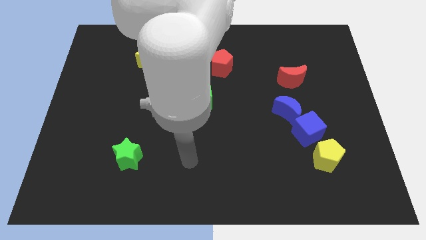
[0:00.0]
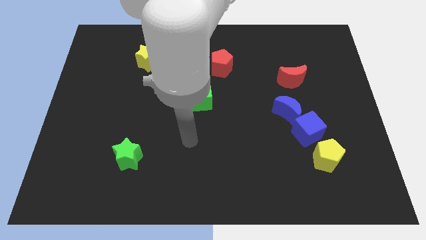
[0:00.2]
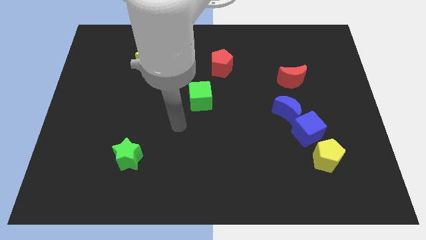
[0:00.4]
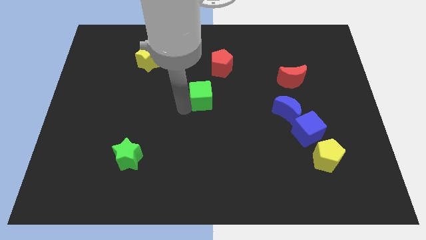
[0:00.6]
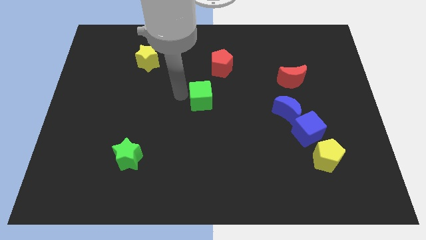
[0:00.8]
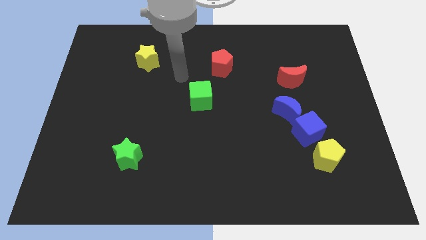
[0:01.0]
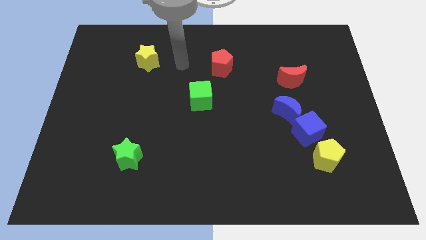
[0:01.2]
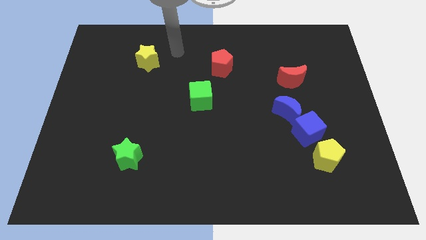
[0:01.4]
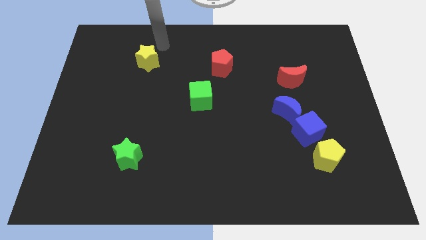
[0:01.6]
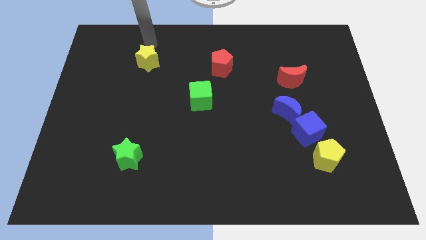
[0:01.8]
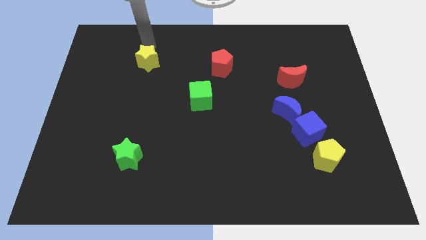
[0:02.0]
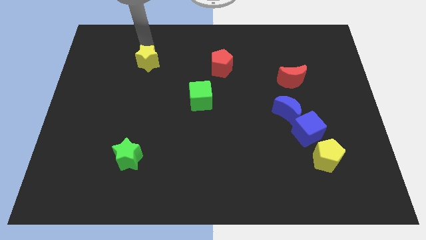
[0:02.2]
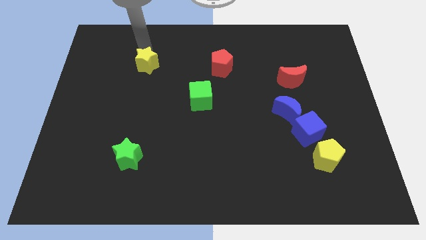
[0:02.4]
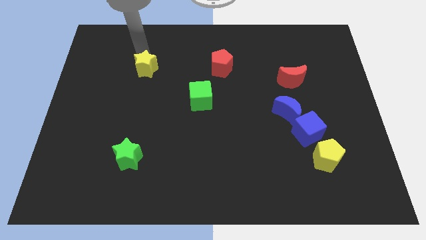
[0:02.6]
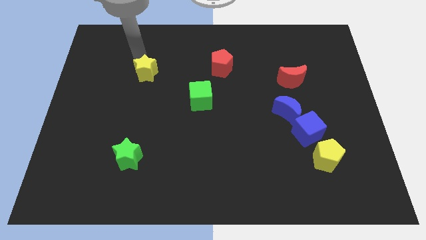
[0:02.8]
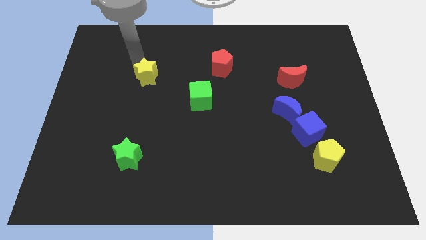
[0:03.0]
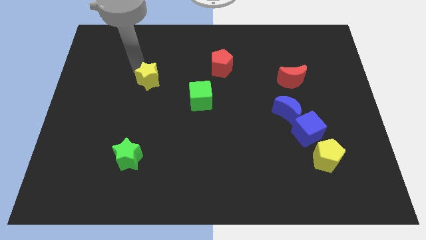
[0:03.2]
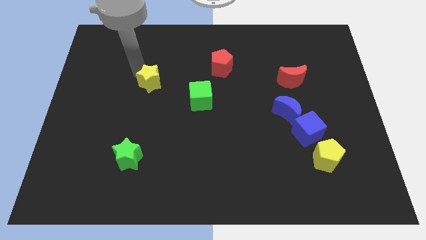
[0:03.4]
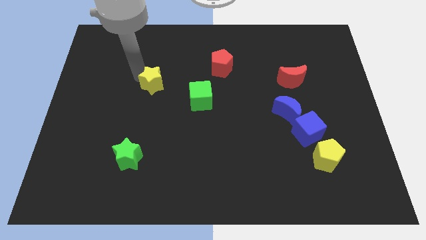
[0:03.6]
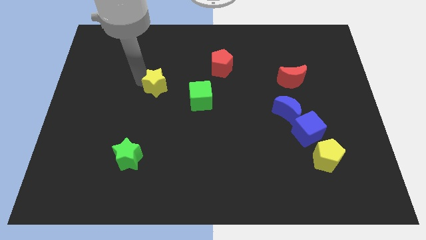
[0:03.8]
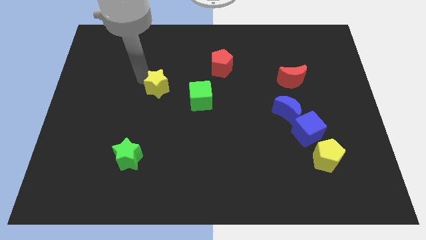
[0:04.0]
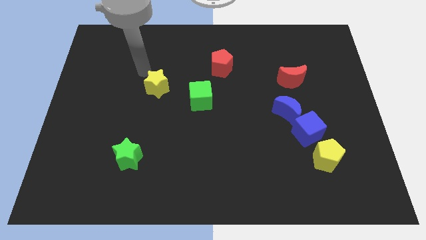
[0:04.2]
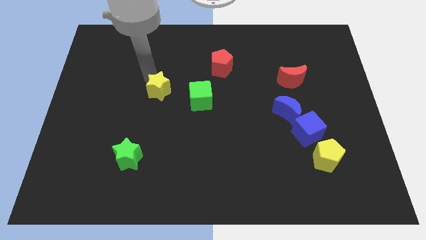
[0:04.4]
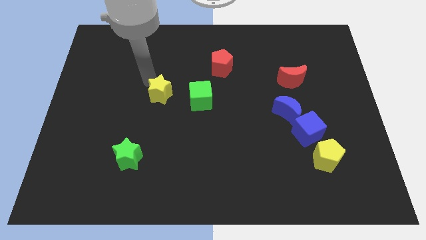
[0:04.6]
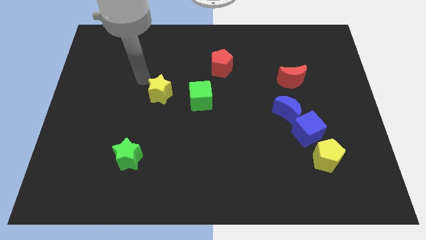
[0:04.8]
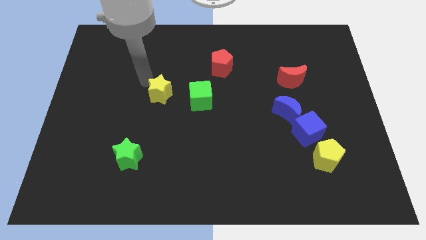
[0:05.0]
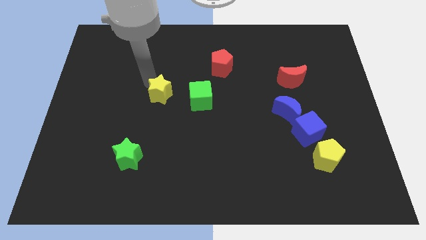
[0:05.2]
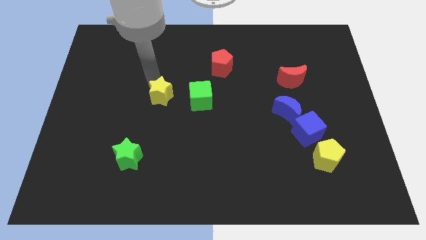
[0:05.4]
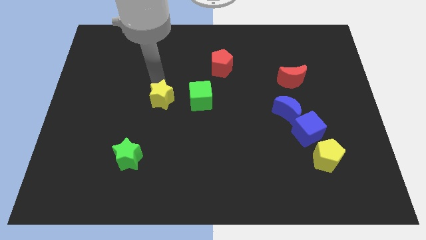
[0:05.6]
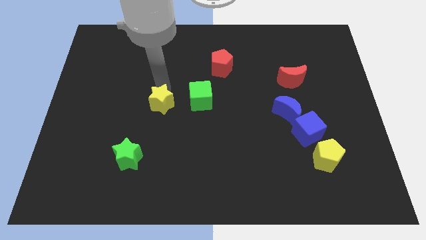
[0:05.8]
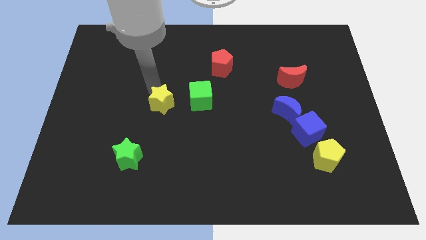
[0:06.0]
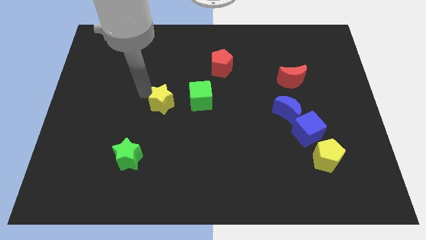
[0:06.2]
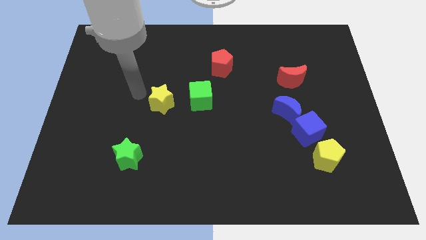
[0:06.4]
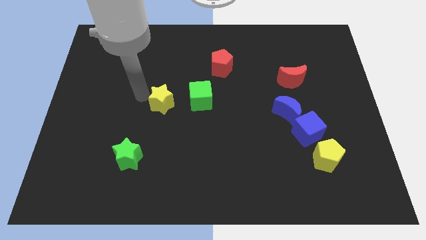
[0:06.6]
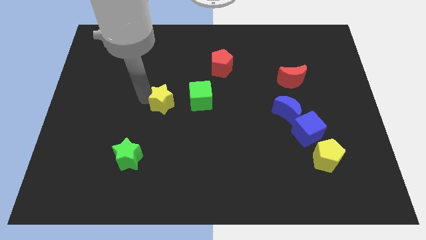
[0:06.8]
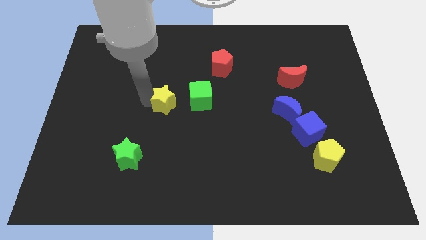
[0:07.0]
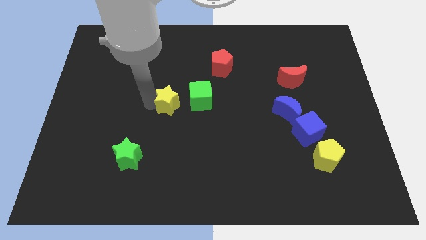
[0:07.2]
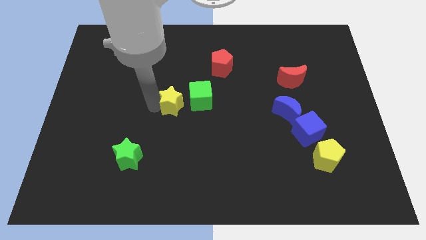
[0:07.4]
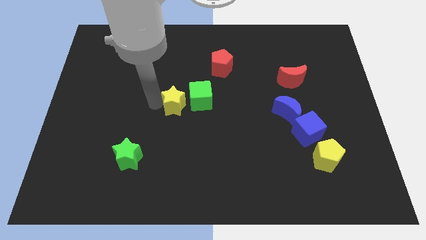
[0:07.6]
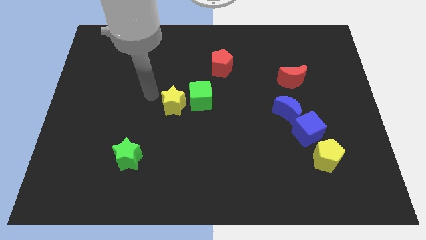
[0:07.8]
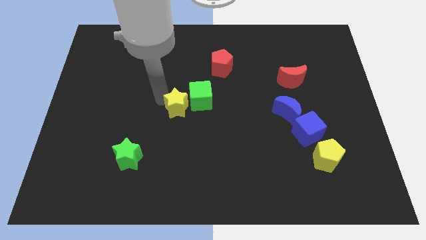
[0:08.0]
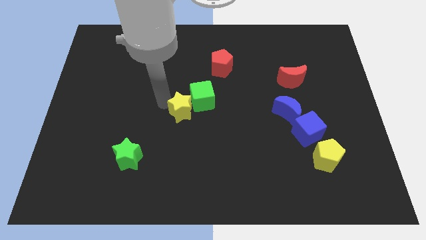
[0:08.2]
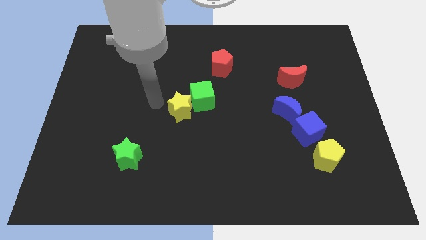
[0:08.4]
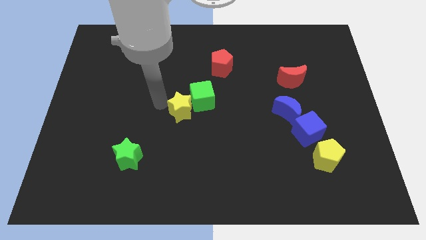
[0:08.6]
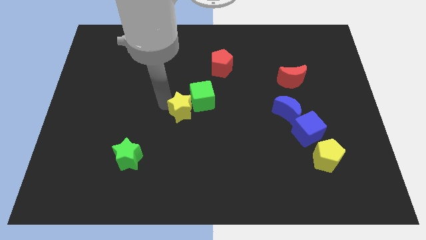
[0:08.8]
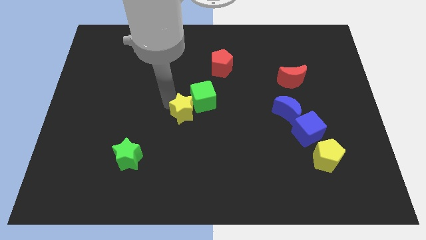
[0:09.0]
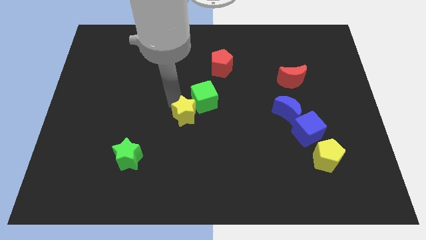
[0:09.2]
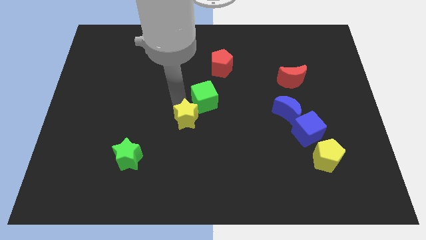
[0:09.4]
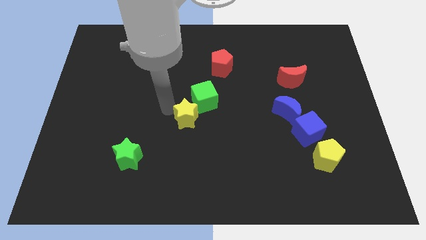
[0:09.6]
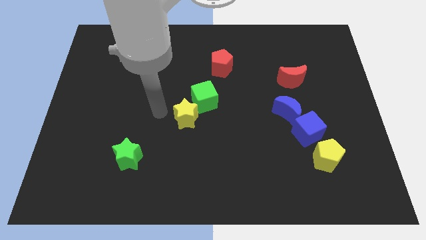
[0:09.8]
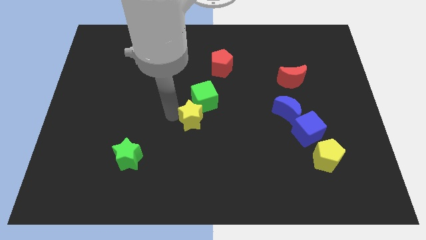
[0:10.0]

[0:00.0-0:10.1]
push the yellow star down and right diagonally

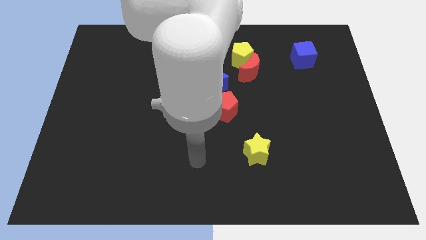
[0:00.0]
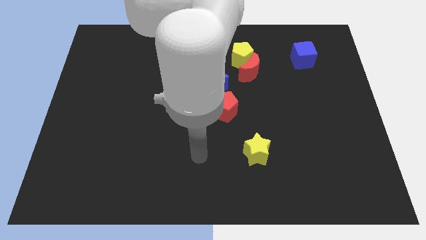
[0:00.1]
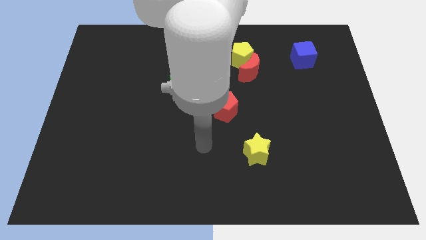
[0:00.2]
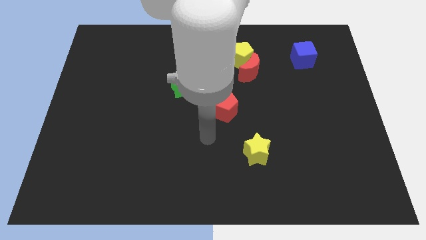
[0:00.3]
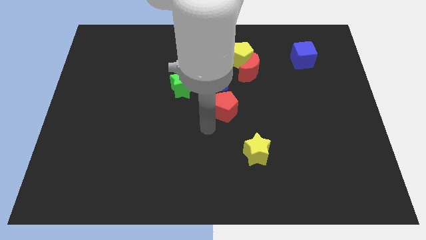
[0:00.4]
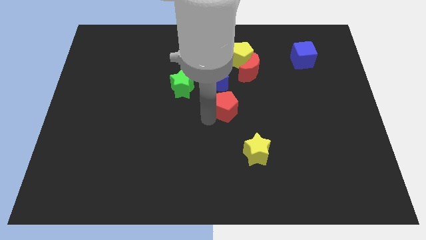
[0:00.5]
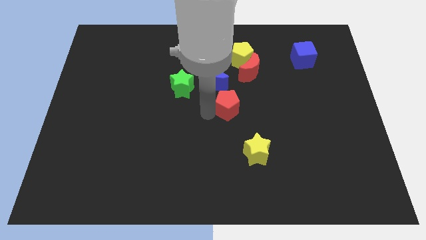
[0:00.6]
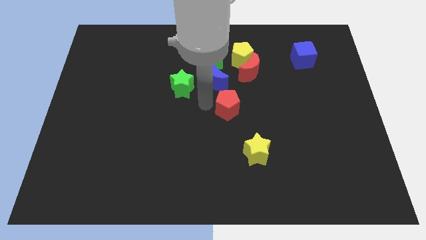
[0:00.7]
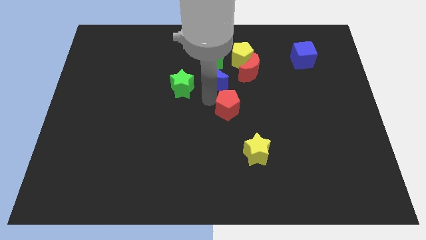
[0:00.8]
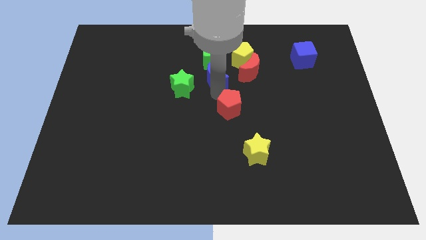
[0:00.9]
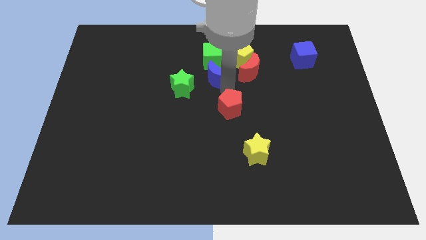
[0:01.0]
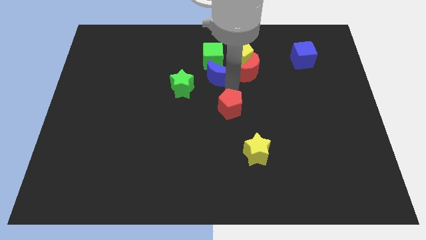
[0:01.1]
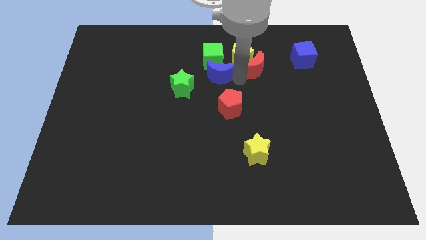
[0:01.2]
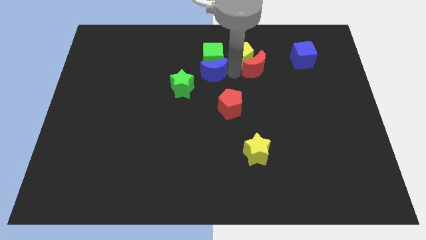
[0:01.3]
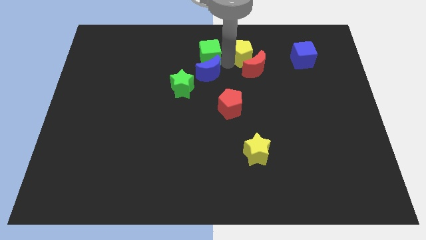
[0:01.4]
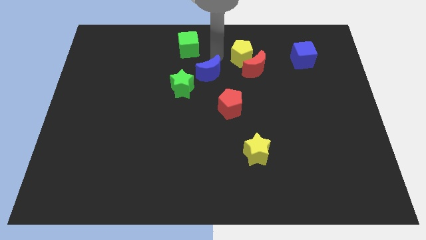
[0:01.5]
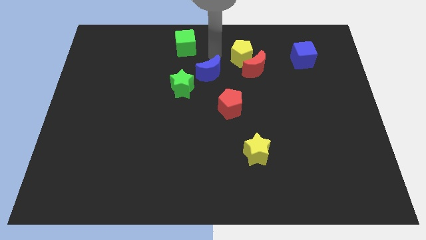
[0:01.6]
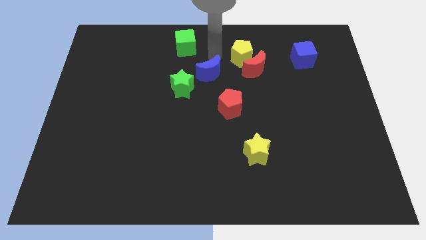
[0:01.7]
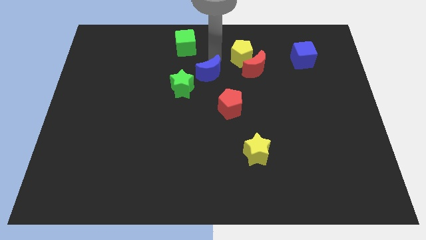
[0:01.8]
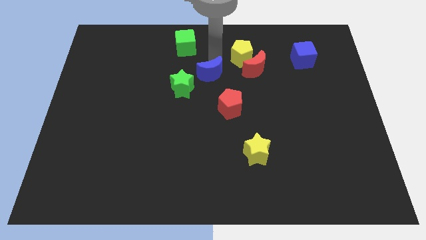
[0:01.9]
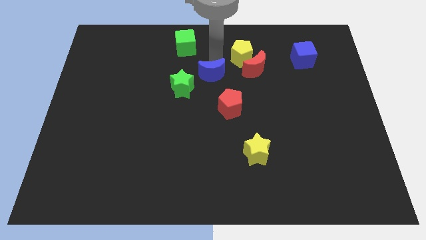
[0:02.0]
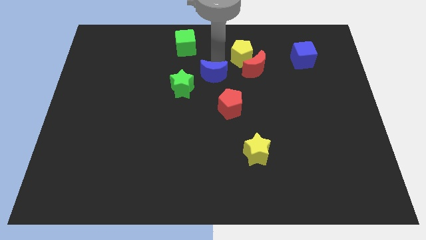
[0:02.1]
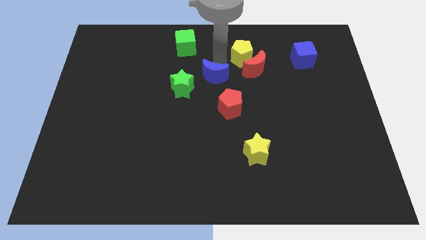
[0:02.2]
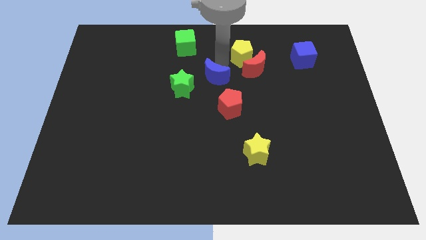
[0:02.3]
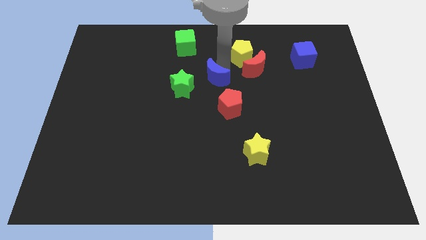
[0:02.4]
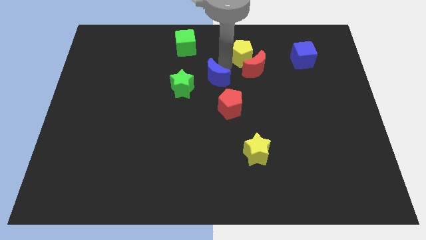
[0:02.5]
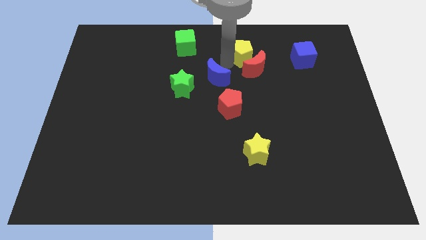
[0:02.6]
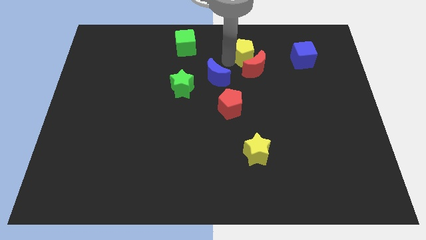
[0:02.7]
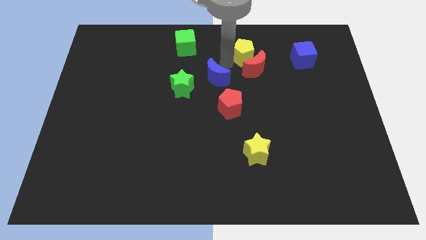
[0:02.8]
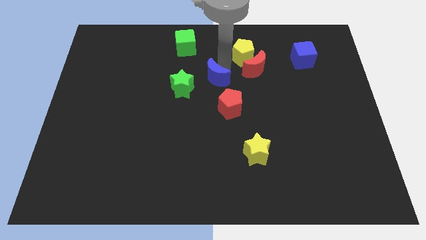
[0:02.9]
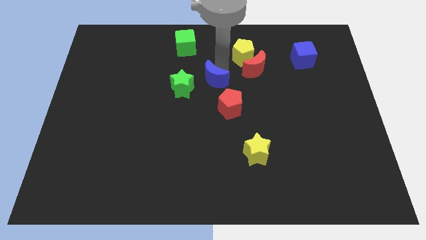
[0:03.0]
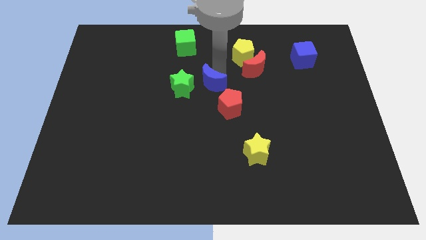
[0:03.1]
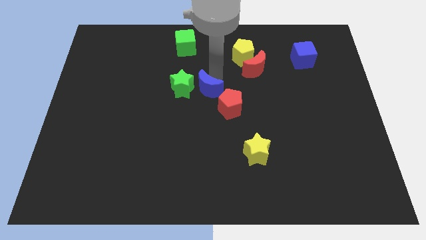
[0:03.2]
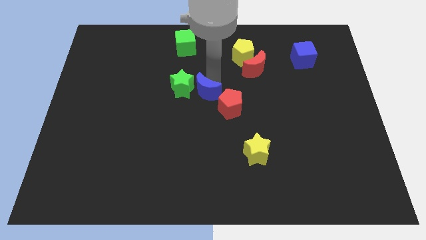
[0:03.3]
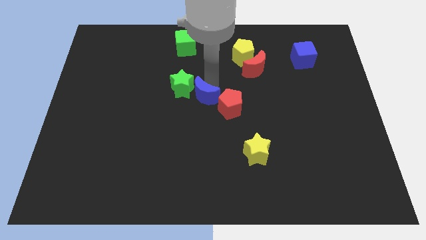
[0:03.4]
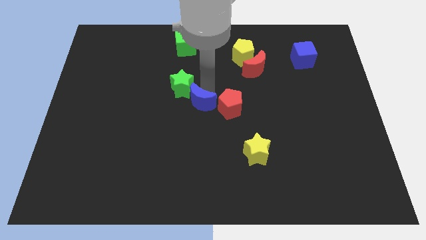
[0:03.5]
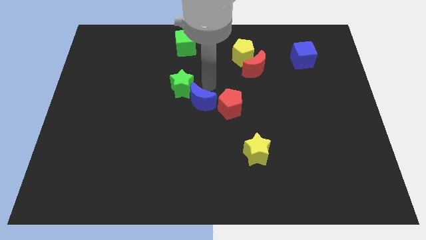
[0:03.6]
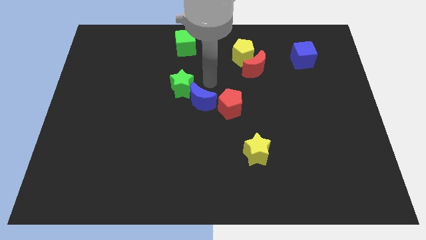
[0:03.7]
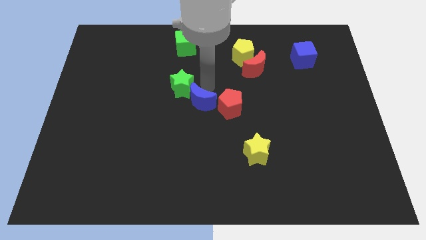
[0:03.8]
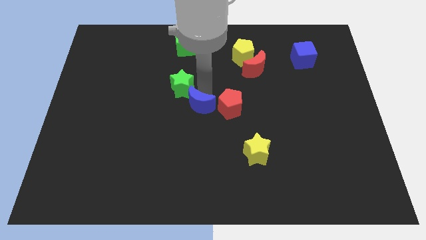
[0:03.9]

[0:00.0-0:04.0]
slide the blue moon a little down
